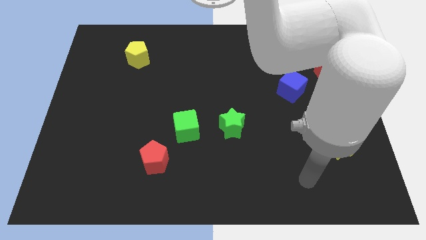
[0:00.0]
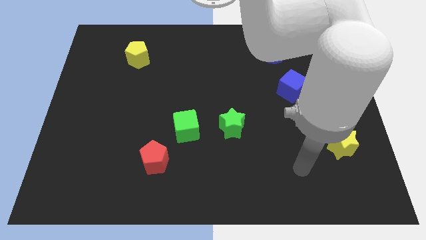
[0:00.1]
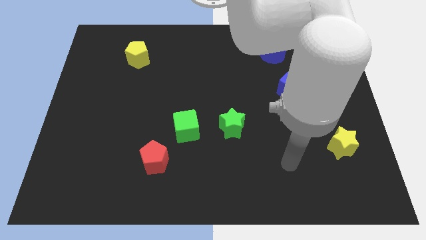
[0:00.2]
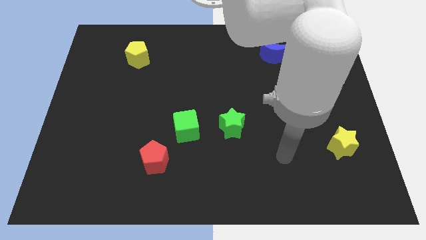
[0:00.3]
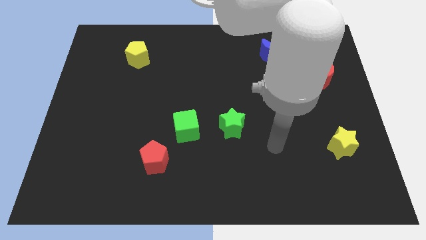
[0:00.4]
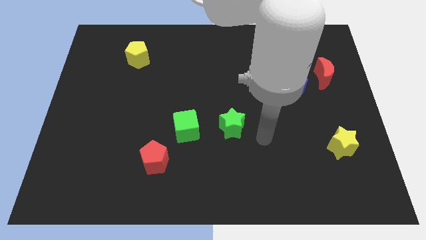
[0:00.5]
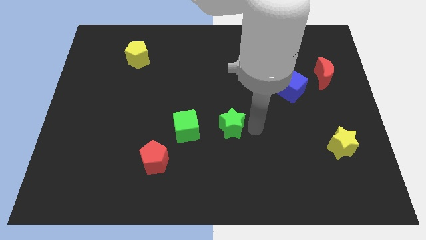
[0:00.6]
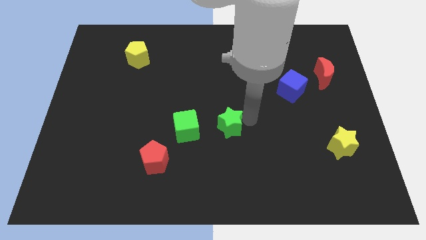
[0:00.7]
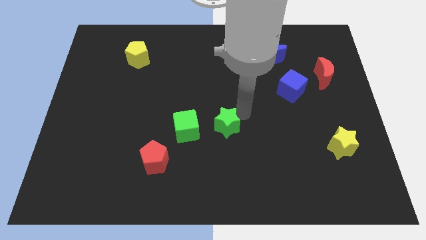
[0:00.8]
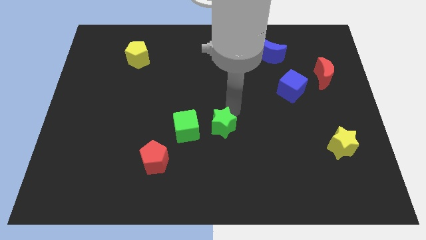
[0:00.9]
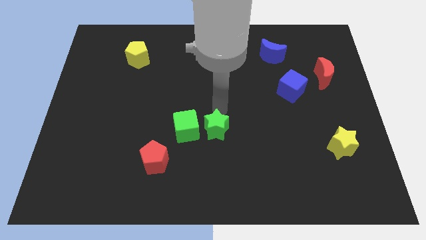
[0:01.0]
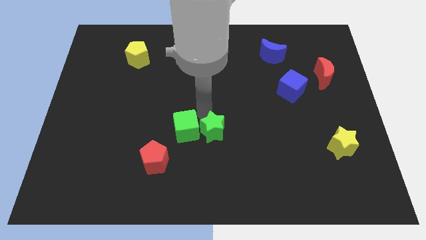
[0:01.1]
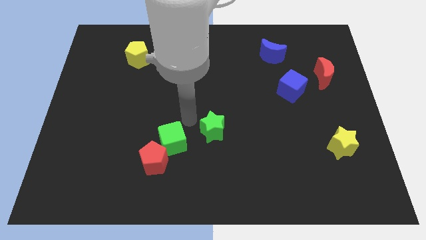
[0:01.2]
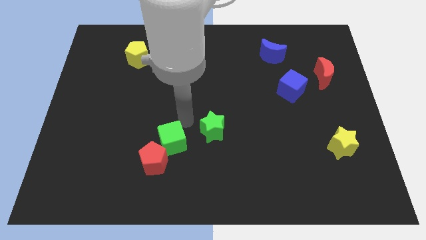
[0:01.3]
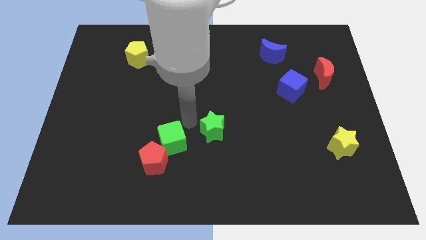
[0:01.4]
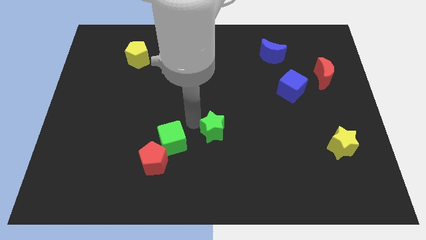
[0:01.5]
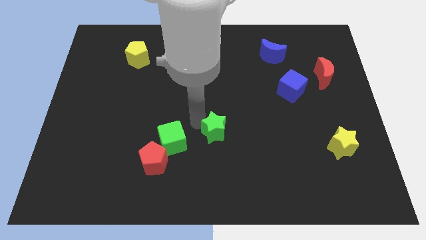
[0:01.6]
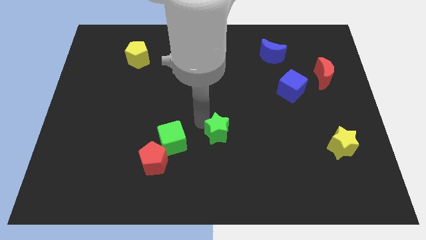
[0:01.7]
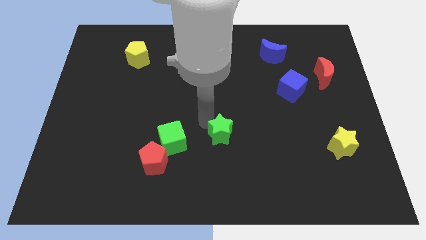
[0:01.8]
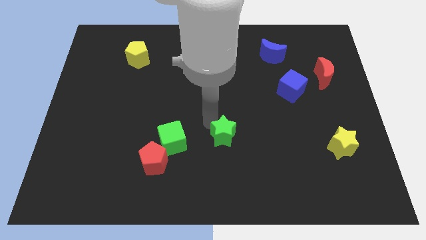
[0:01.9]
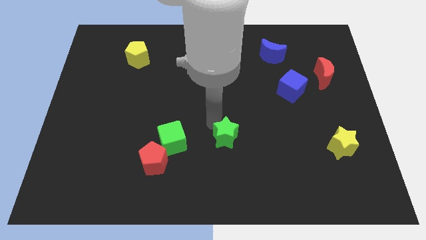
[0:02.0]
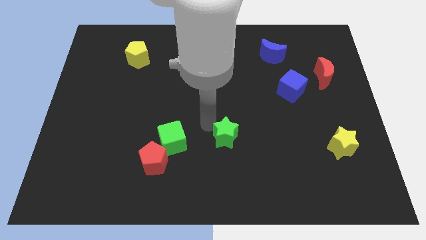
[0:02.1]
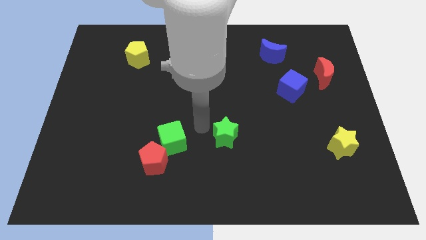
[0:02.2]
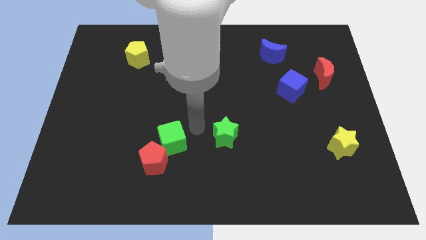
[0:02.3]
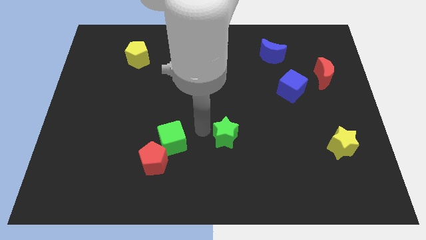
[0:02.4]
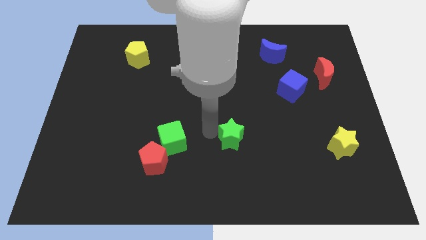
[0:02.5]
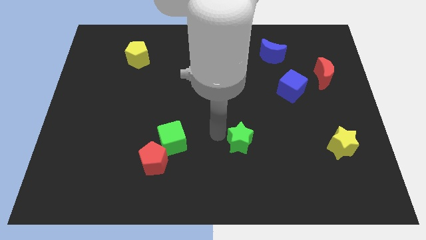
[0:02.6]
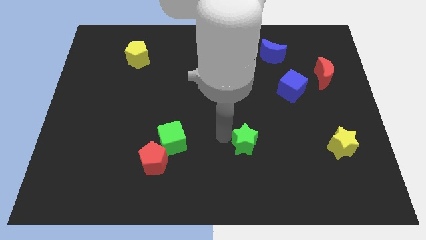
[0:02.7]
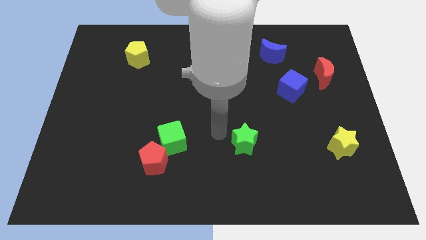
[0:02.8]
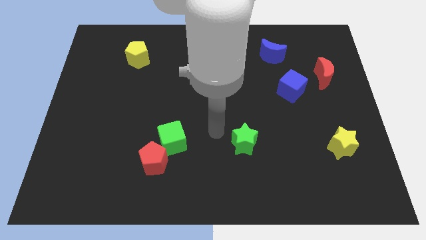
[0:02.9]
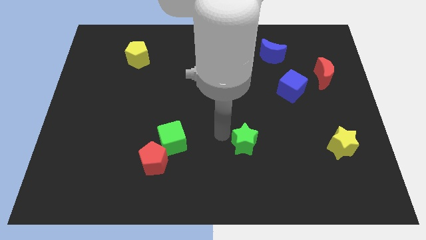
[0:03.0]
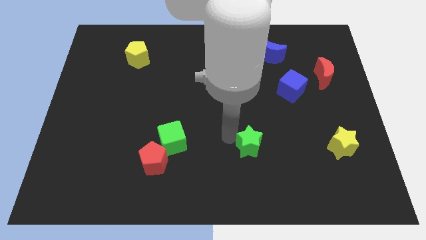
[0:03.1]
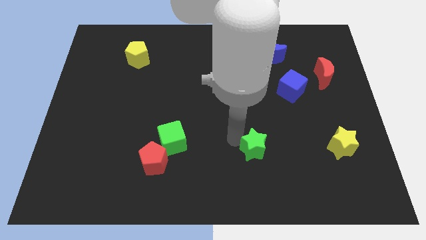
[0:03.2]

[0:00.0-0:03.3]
push the green star down and right somewhat

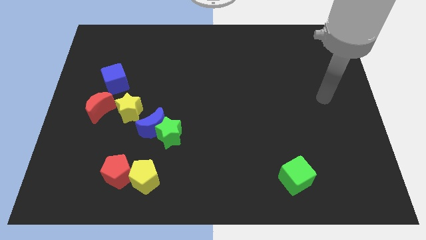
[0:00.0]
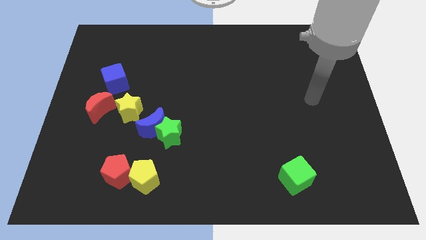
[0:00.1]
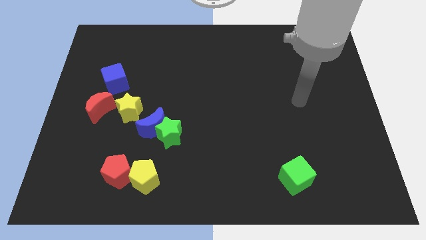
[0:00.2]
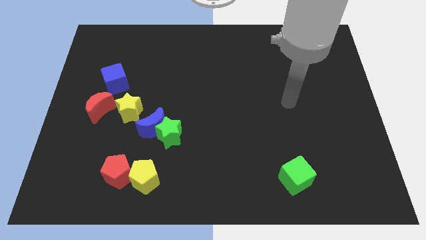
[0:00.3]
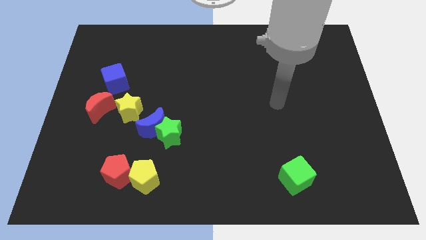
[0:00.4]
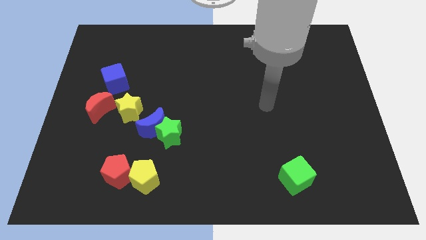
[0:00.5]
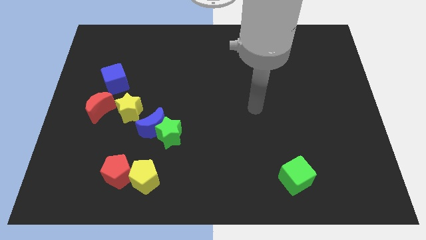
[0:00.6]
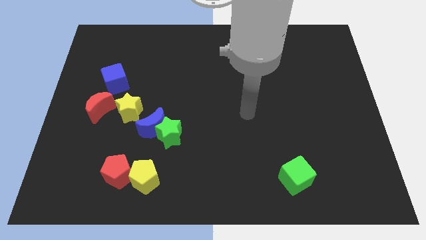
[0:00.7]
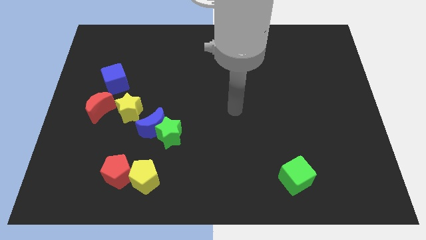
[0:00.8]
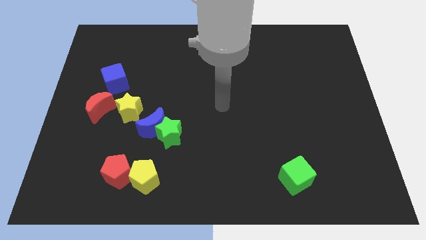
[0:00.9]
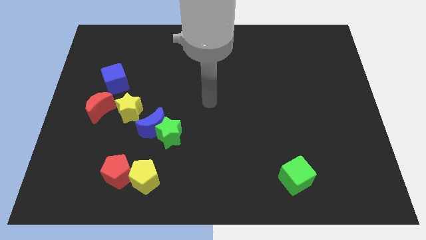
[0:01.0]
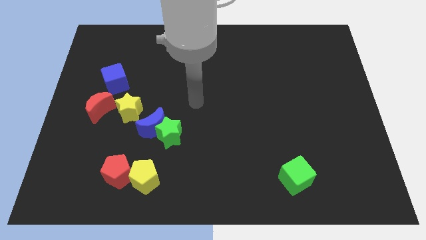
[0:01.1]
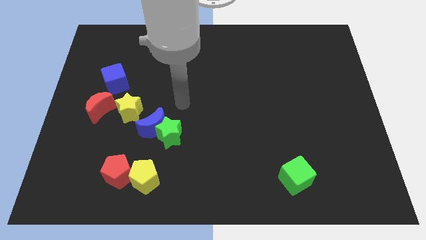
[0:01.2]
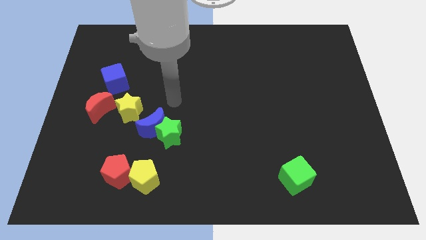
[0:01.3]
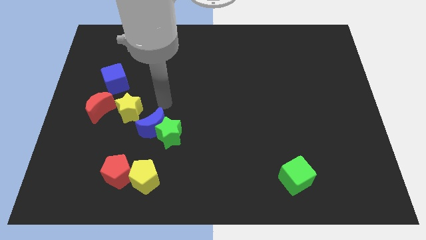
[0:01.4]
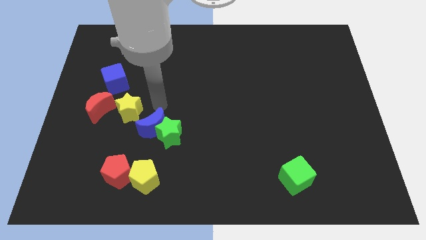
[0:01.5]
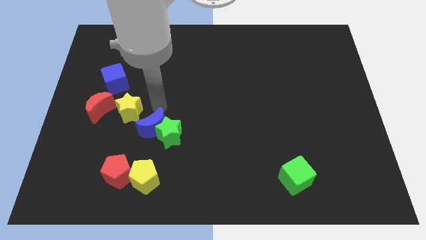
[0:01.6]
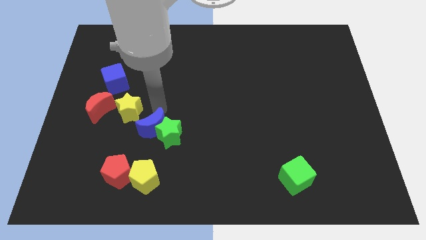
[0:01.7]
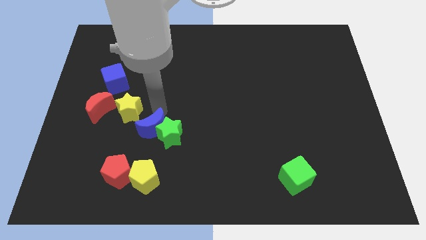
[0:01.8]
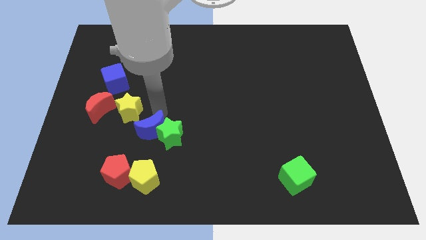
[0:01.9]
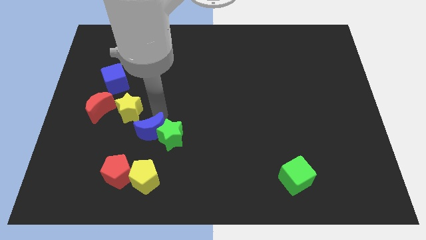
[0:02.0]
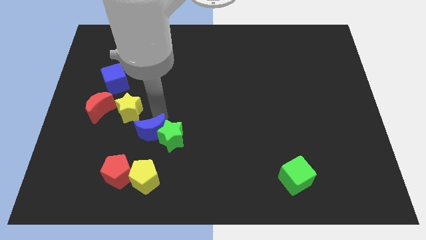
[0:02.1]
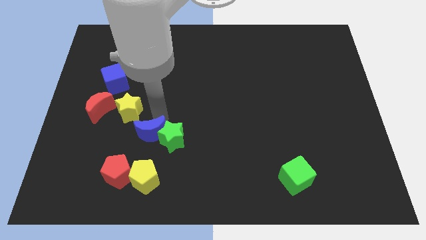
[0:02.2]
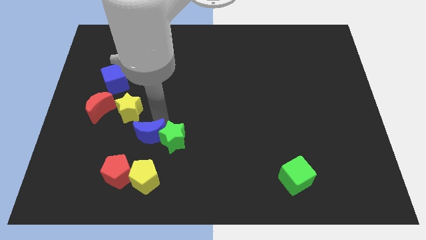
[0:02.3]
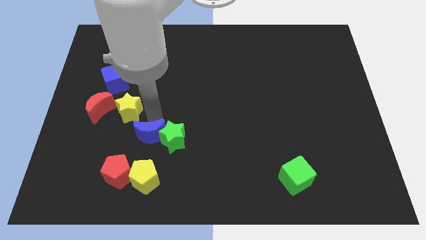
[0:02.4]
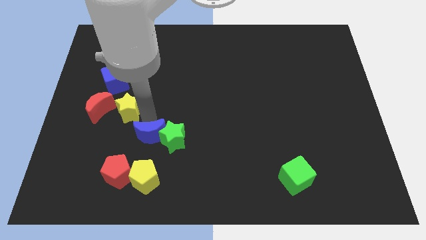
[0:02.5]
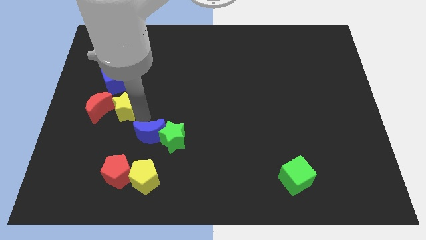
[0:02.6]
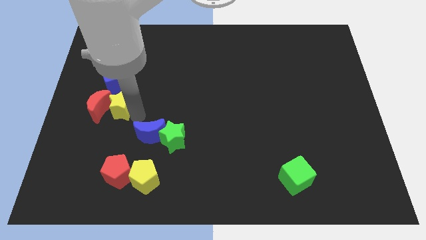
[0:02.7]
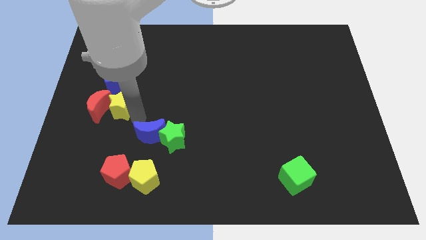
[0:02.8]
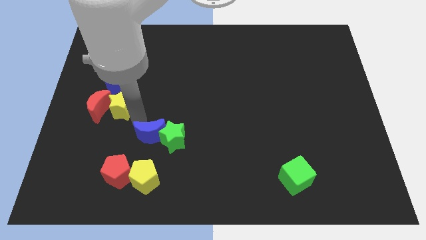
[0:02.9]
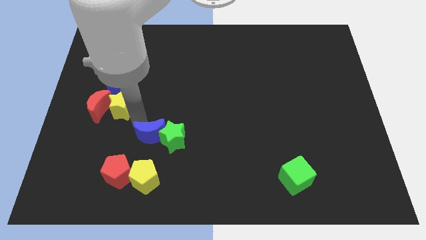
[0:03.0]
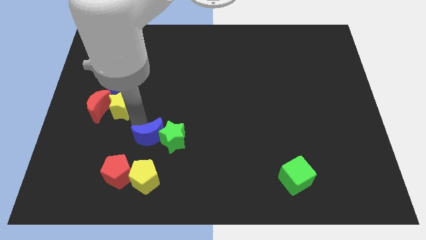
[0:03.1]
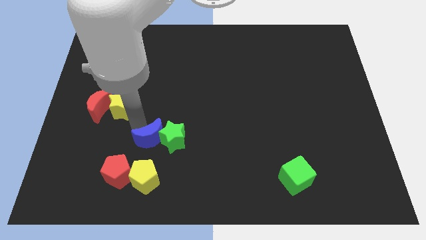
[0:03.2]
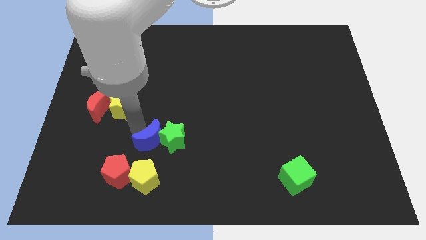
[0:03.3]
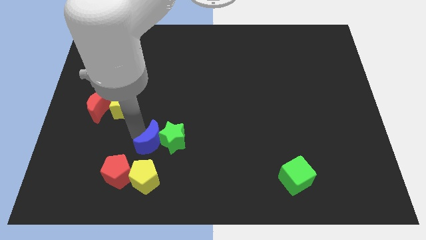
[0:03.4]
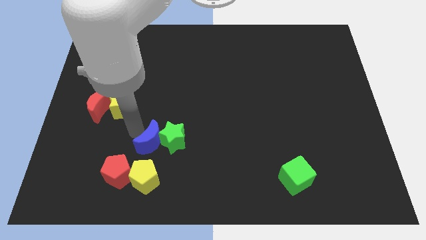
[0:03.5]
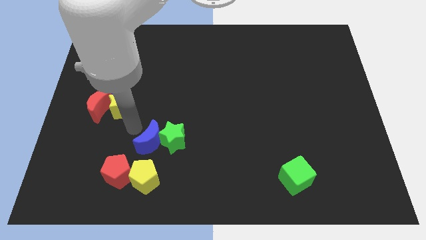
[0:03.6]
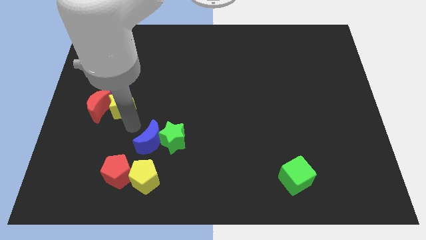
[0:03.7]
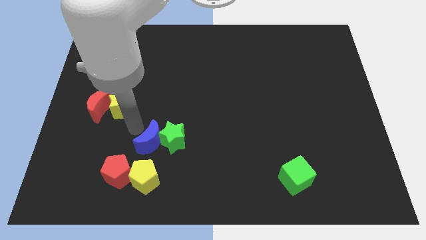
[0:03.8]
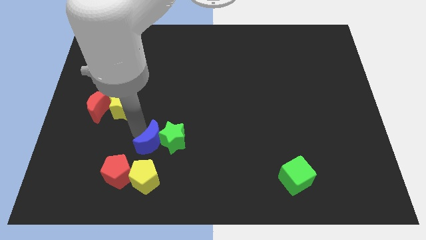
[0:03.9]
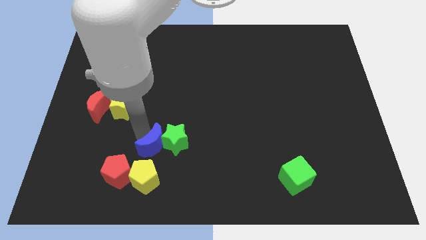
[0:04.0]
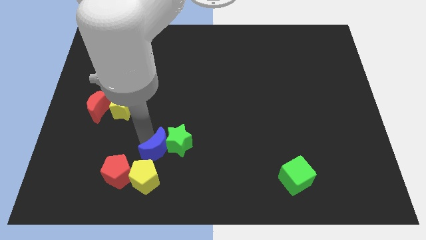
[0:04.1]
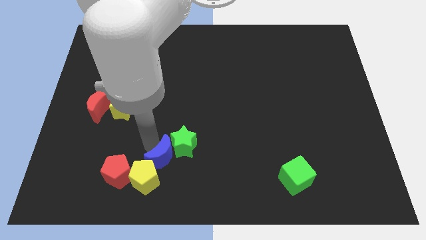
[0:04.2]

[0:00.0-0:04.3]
push the blue moon downwards and to the right slightly

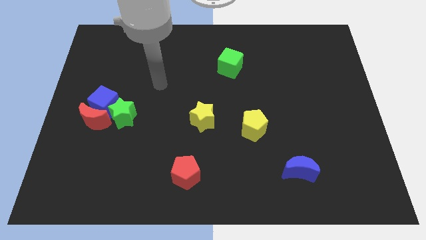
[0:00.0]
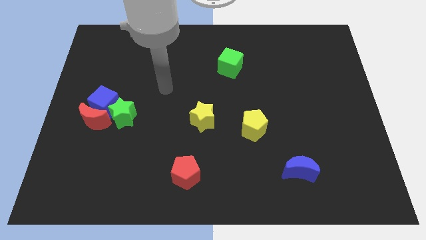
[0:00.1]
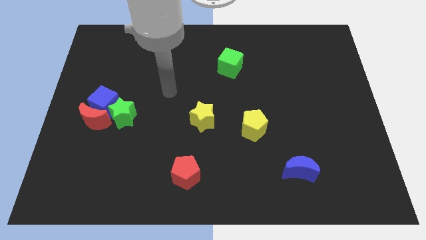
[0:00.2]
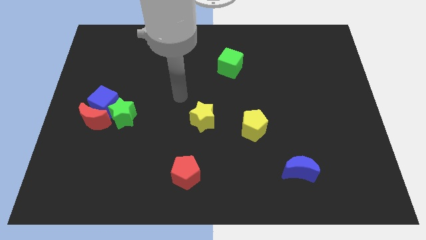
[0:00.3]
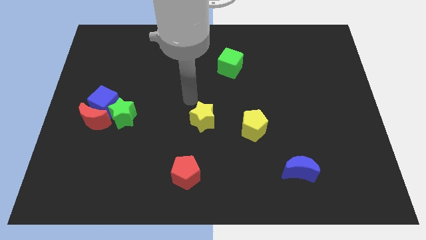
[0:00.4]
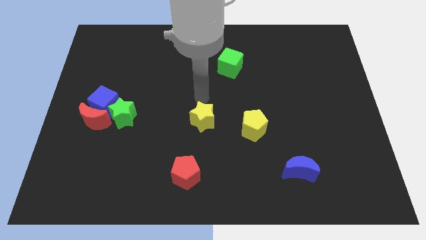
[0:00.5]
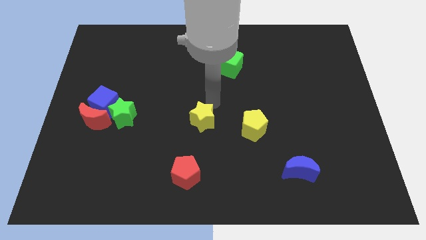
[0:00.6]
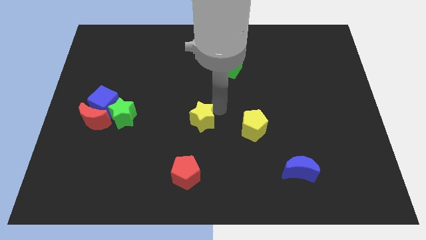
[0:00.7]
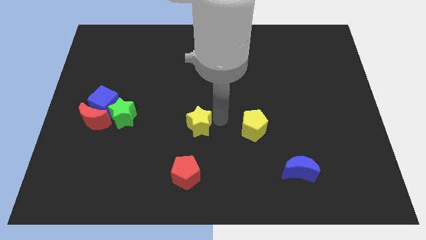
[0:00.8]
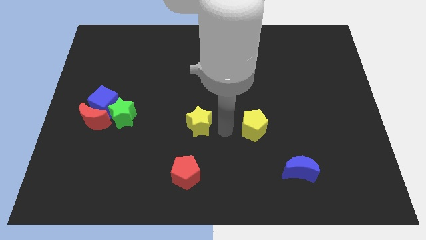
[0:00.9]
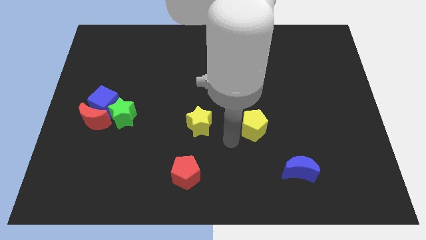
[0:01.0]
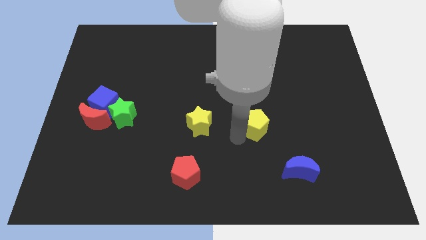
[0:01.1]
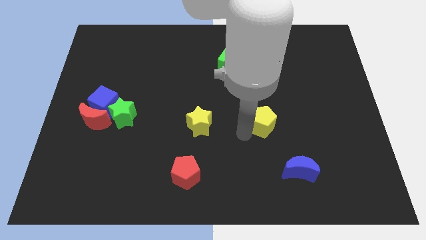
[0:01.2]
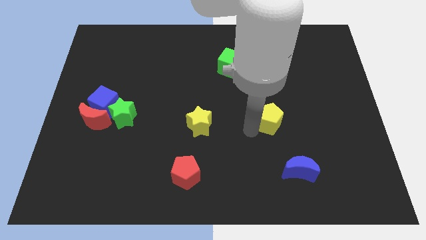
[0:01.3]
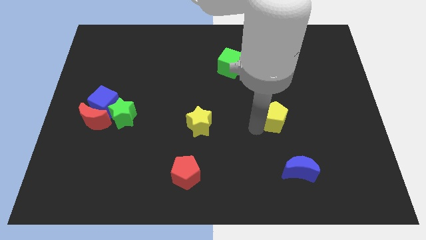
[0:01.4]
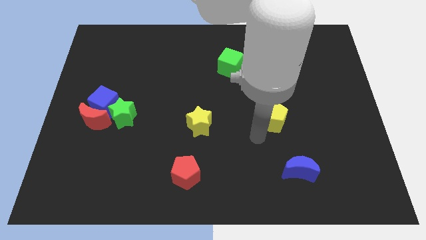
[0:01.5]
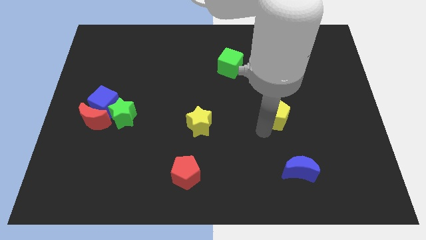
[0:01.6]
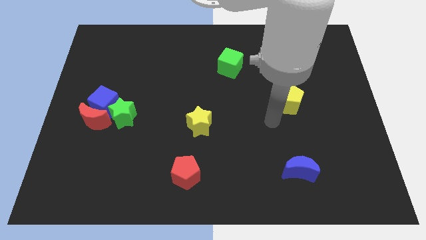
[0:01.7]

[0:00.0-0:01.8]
push the yellow pentagon a little bit up and to the right
